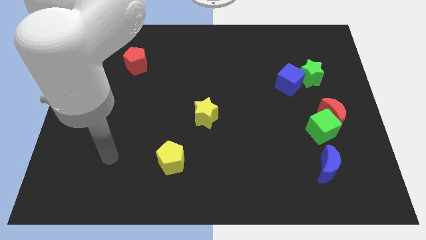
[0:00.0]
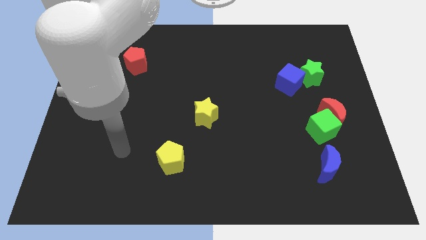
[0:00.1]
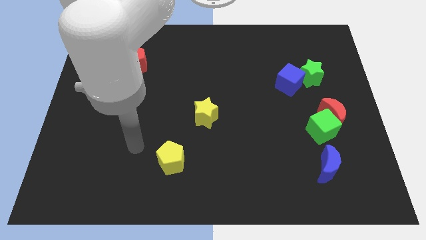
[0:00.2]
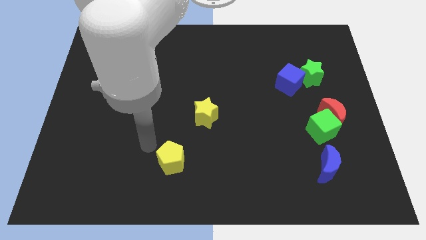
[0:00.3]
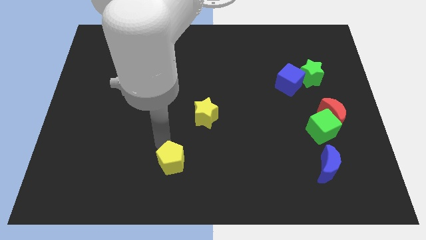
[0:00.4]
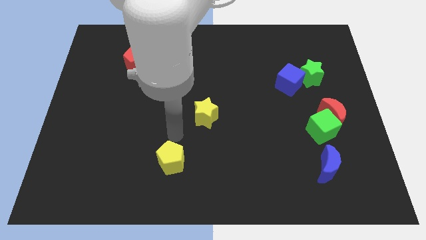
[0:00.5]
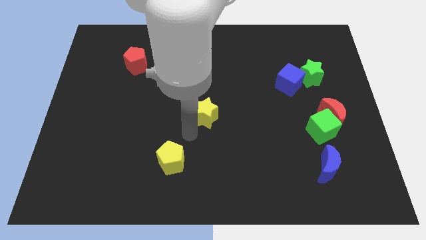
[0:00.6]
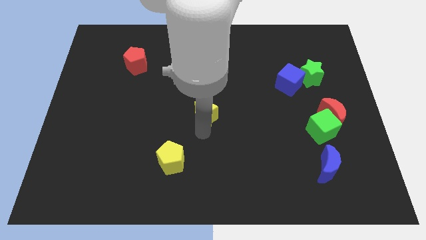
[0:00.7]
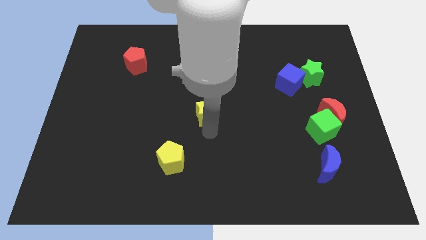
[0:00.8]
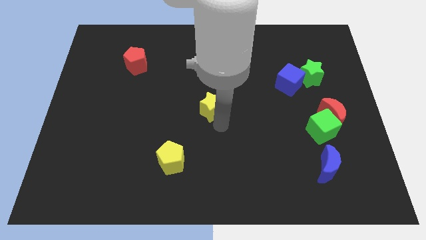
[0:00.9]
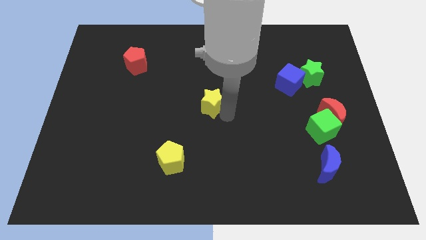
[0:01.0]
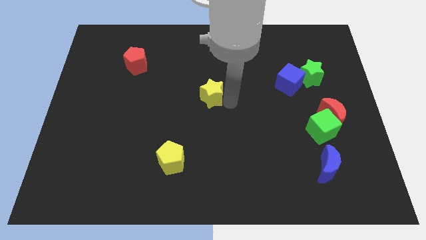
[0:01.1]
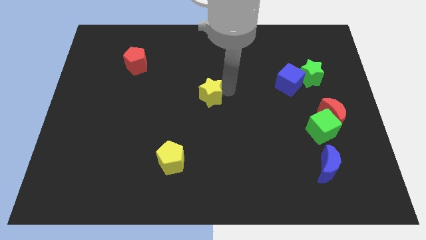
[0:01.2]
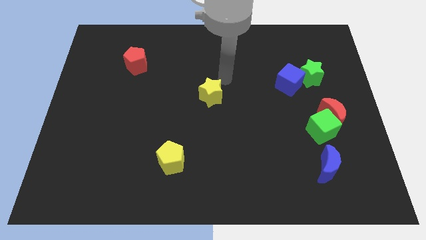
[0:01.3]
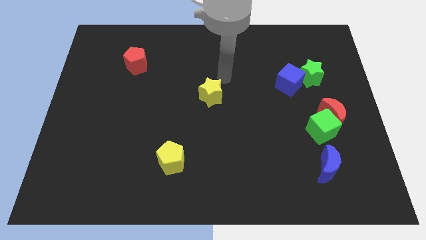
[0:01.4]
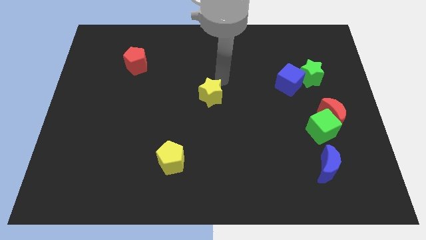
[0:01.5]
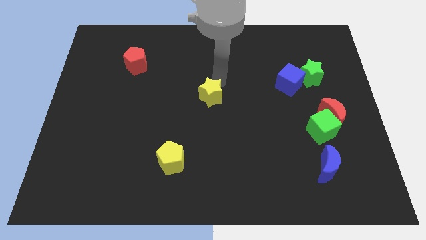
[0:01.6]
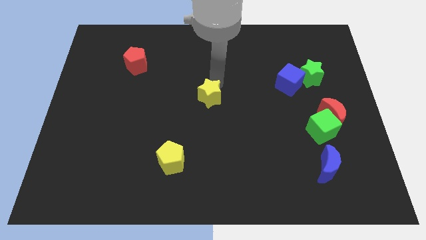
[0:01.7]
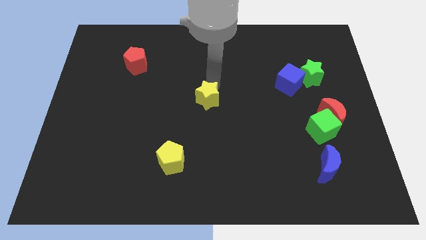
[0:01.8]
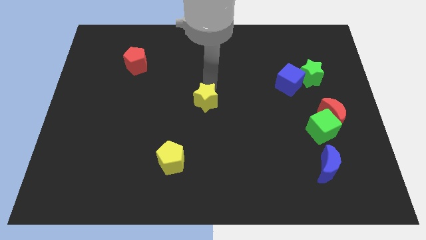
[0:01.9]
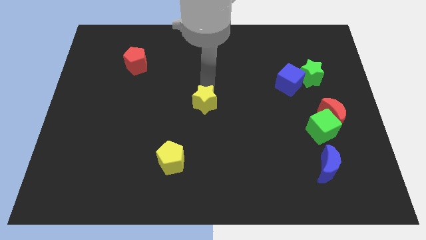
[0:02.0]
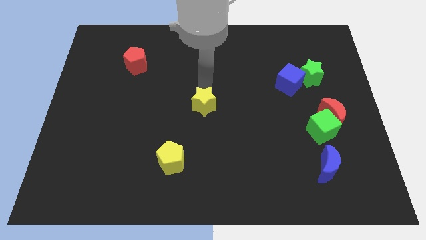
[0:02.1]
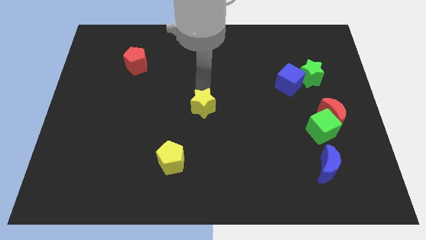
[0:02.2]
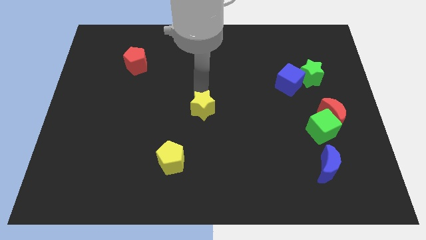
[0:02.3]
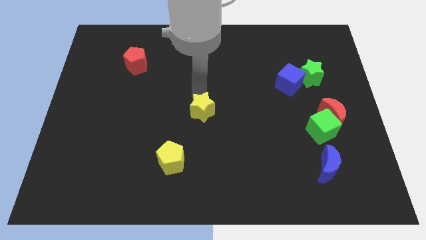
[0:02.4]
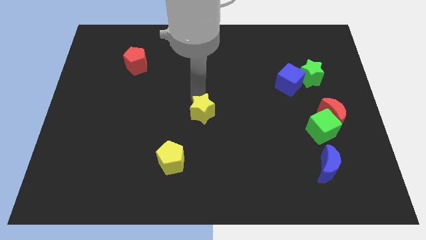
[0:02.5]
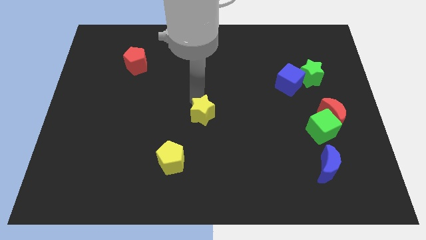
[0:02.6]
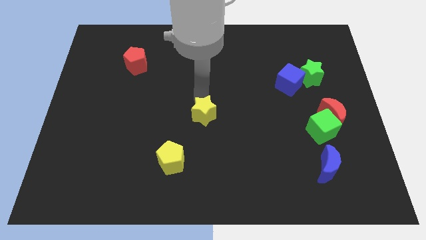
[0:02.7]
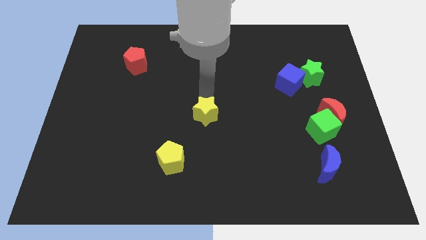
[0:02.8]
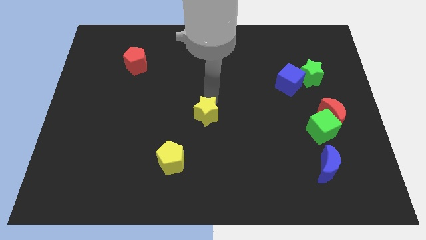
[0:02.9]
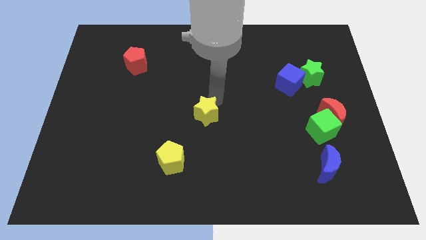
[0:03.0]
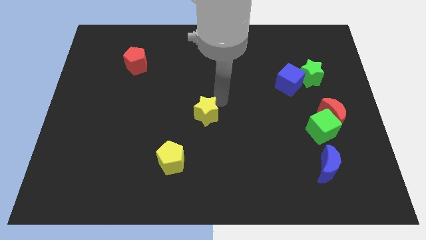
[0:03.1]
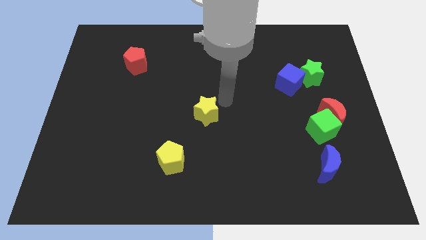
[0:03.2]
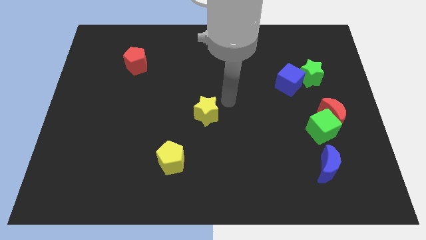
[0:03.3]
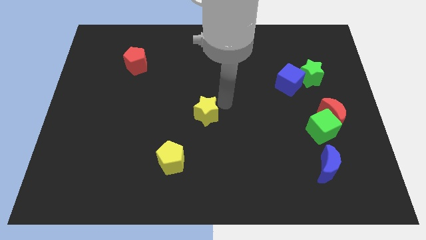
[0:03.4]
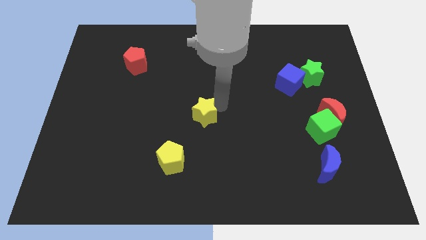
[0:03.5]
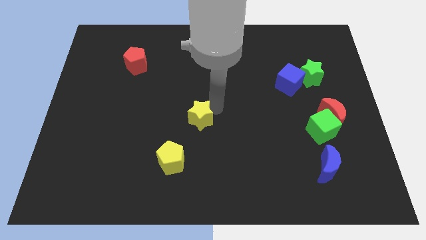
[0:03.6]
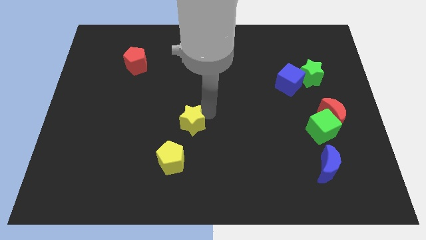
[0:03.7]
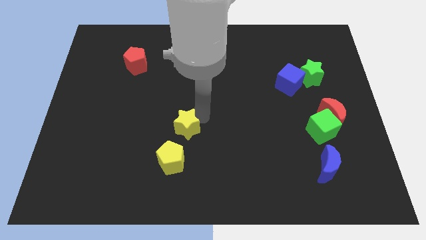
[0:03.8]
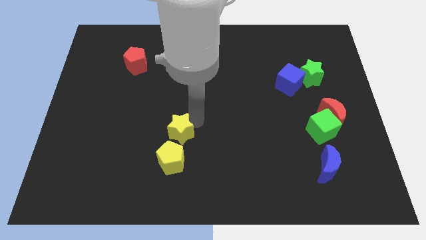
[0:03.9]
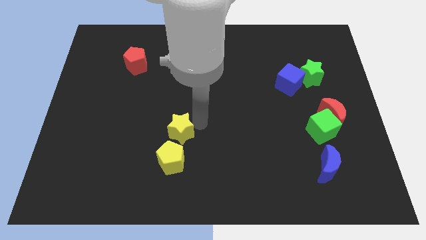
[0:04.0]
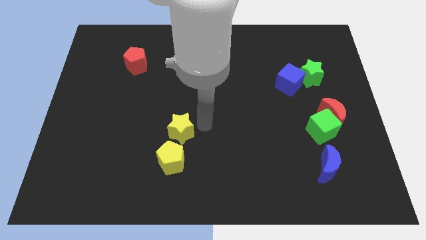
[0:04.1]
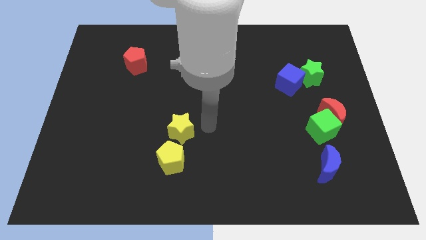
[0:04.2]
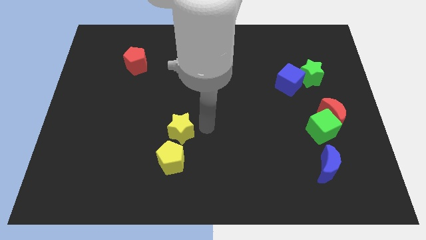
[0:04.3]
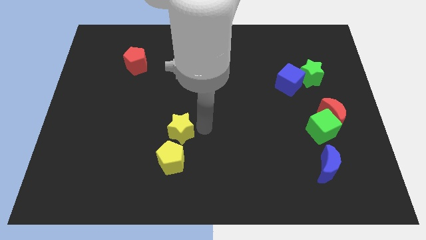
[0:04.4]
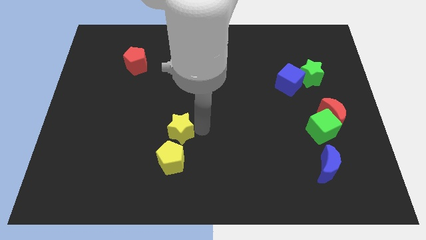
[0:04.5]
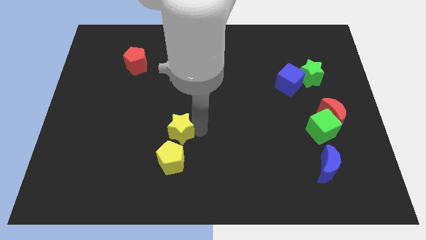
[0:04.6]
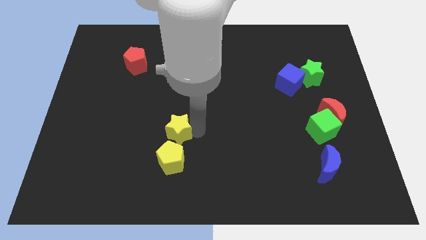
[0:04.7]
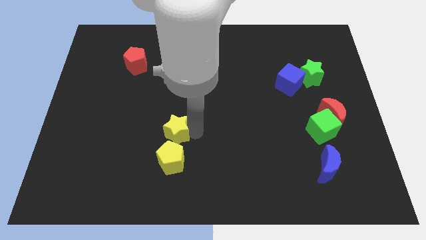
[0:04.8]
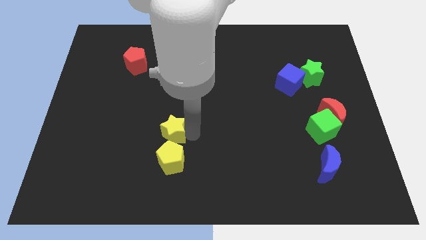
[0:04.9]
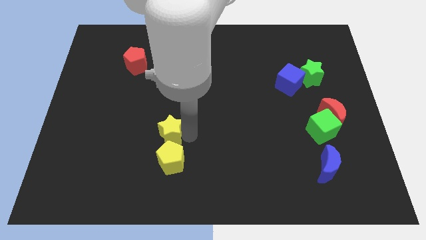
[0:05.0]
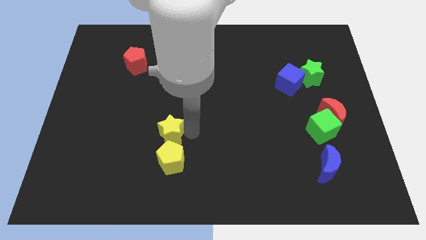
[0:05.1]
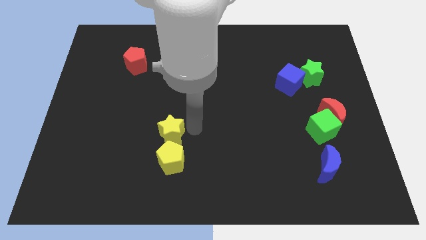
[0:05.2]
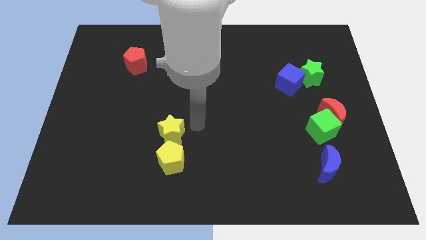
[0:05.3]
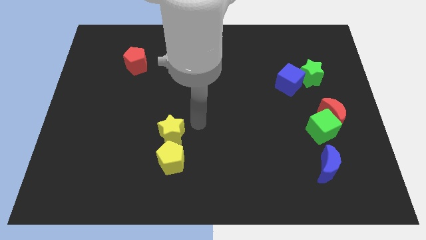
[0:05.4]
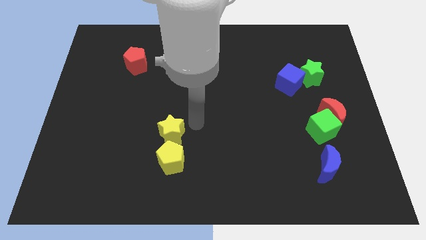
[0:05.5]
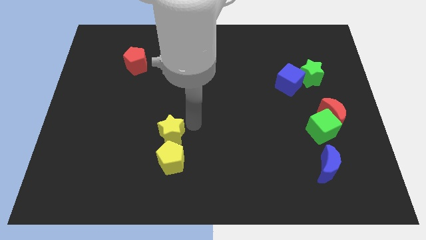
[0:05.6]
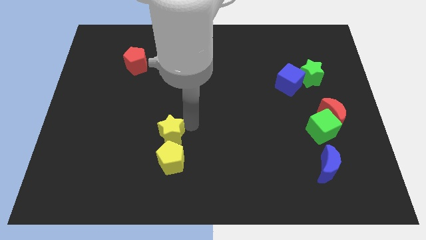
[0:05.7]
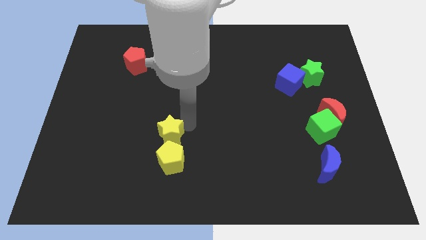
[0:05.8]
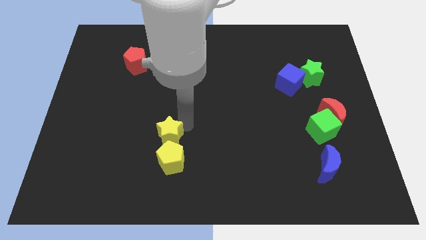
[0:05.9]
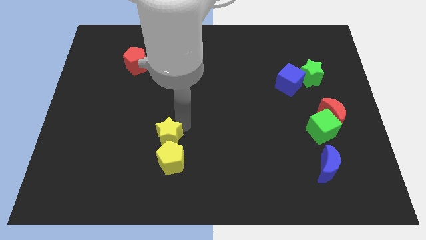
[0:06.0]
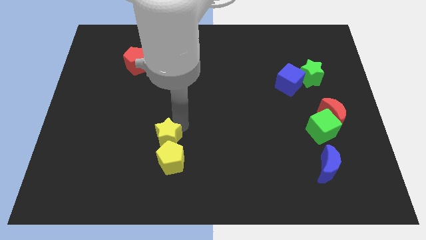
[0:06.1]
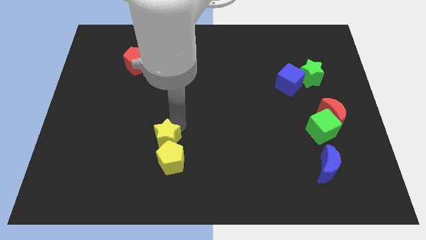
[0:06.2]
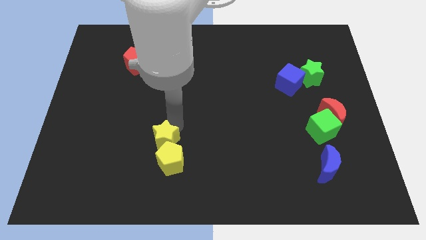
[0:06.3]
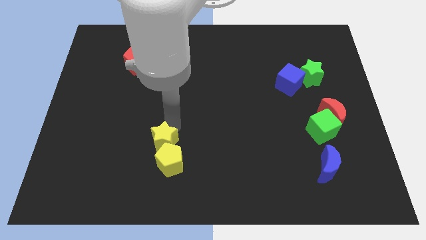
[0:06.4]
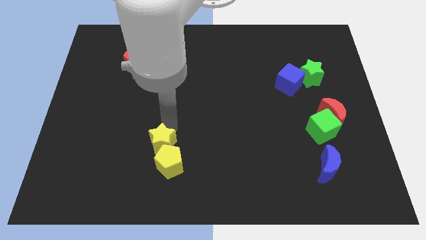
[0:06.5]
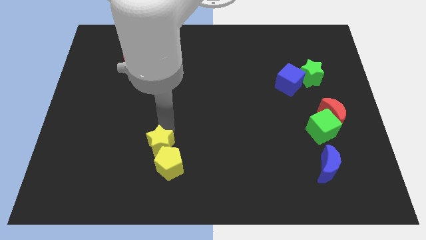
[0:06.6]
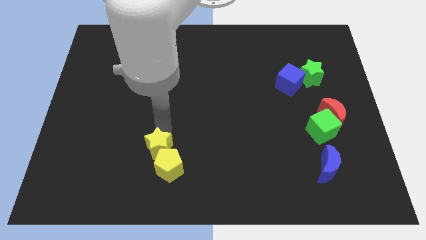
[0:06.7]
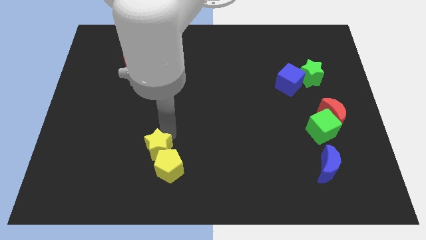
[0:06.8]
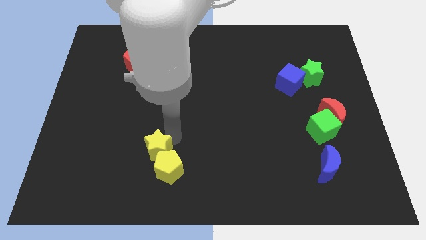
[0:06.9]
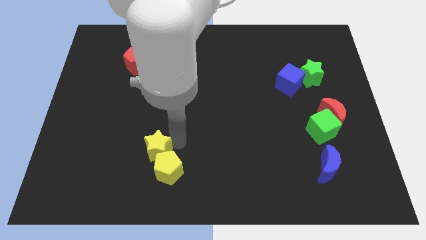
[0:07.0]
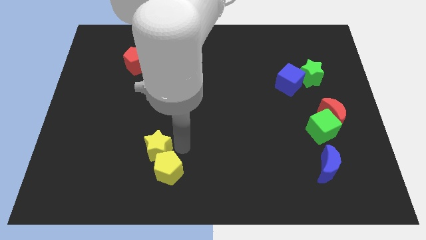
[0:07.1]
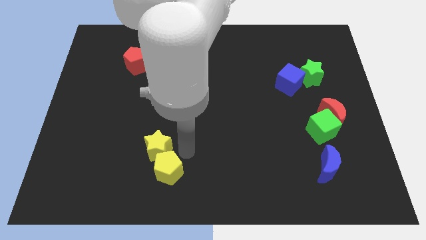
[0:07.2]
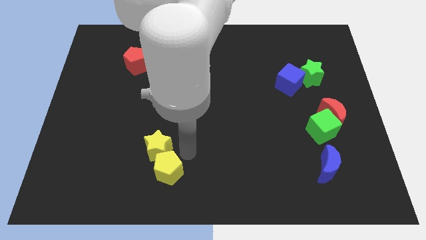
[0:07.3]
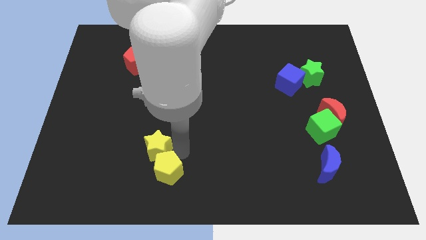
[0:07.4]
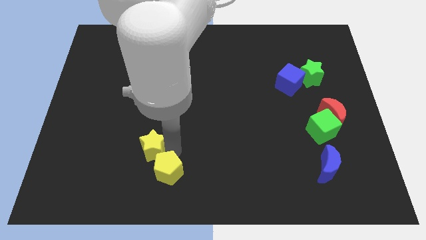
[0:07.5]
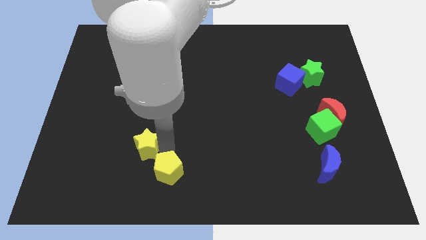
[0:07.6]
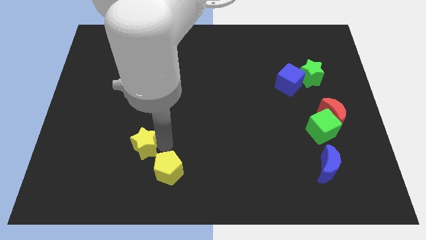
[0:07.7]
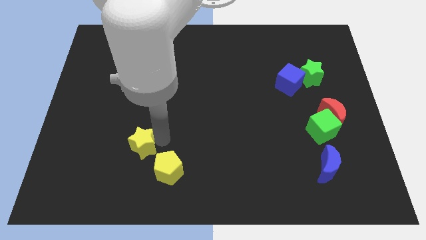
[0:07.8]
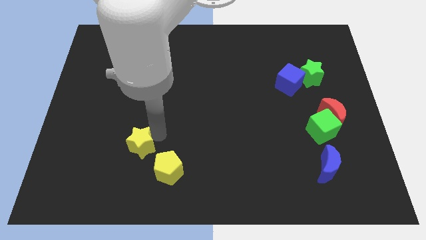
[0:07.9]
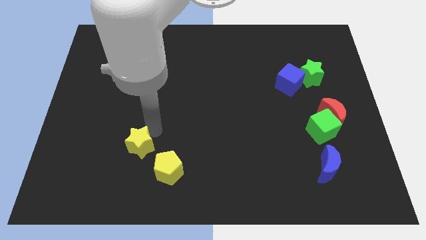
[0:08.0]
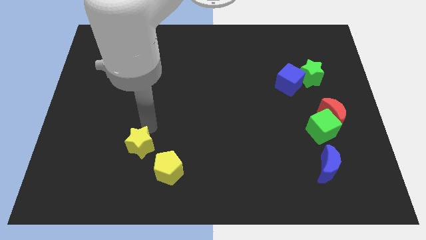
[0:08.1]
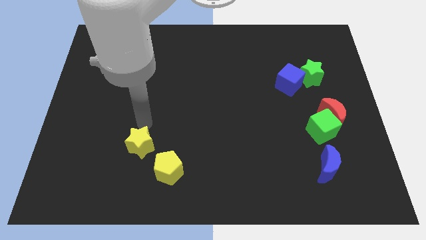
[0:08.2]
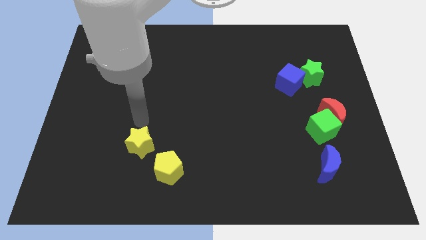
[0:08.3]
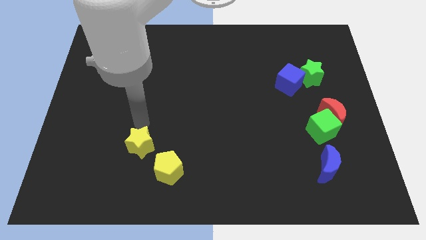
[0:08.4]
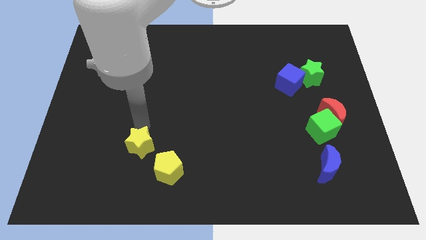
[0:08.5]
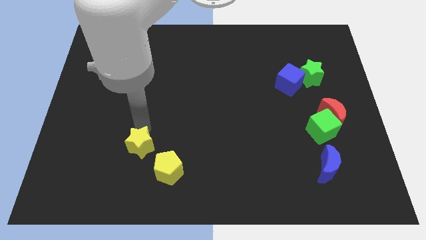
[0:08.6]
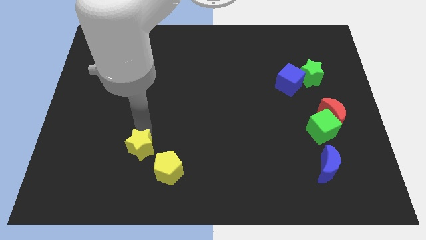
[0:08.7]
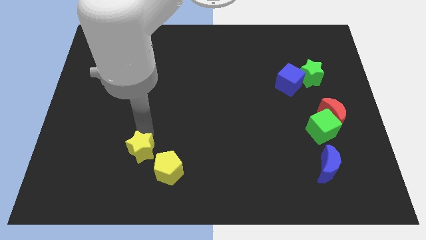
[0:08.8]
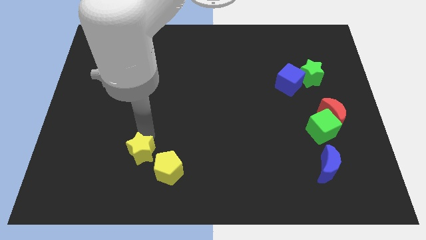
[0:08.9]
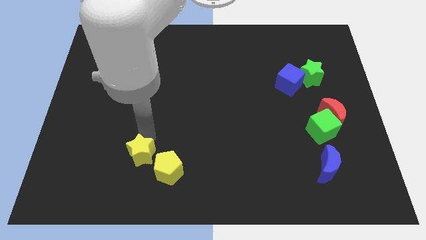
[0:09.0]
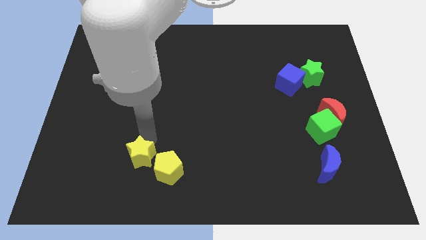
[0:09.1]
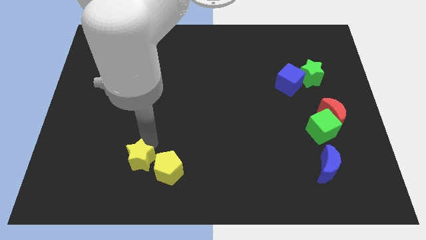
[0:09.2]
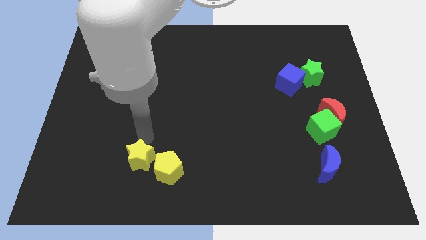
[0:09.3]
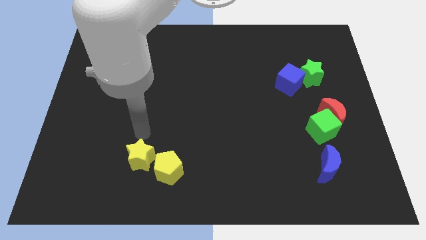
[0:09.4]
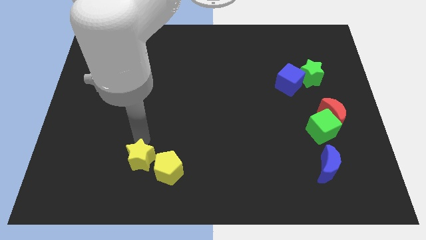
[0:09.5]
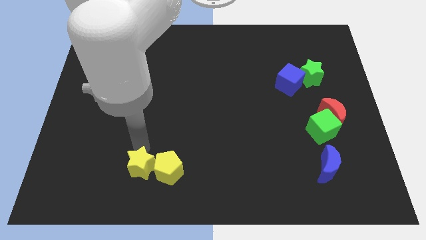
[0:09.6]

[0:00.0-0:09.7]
push the yellow star diagonally down and to the left of the yellow pentagon
